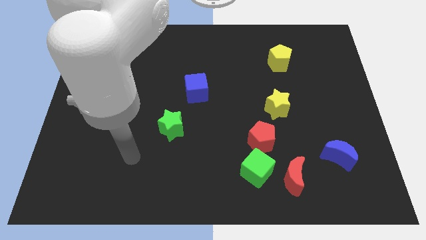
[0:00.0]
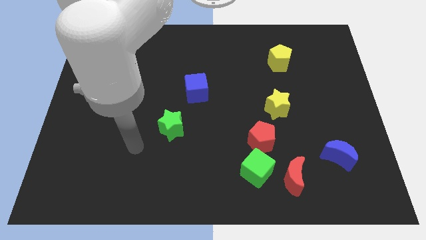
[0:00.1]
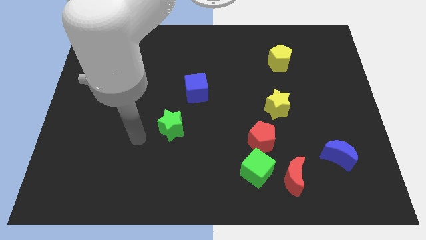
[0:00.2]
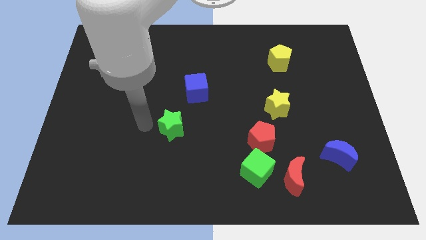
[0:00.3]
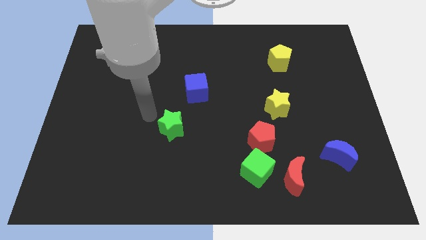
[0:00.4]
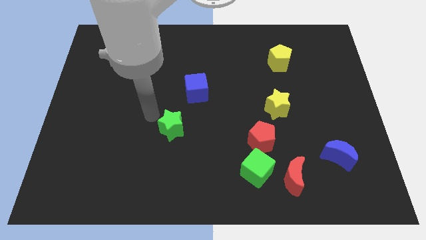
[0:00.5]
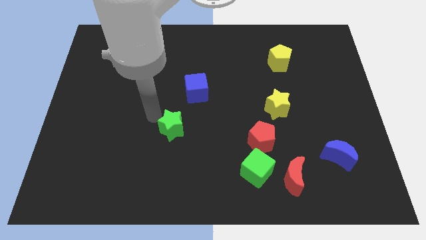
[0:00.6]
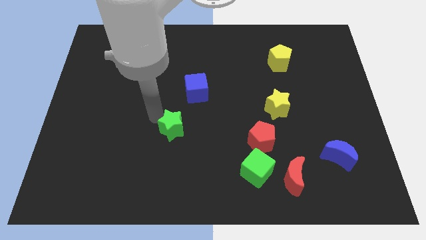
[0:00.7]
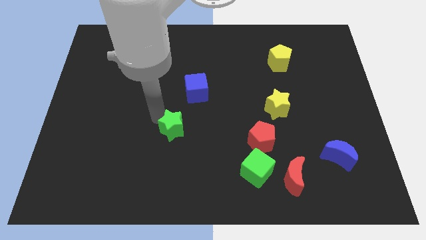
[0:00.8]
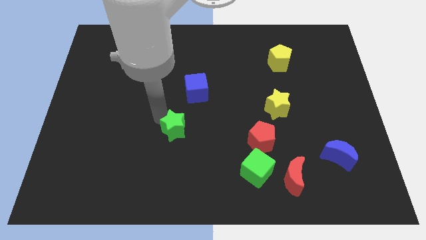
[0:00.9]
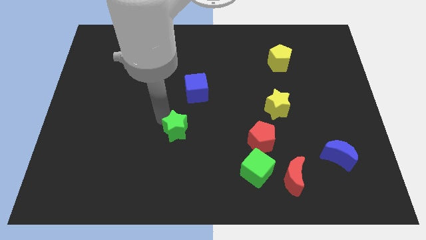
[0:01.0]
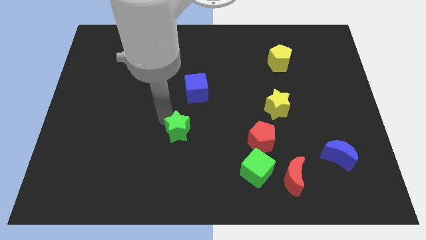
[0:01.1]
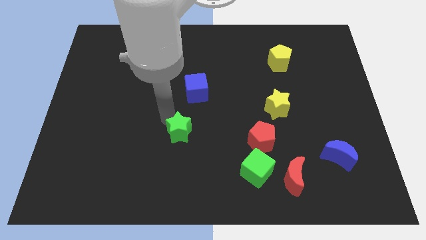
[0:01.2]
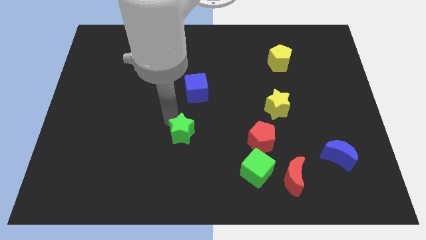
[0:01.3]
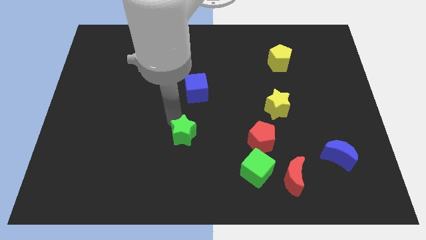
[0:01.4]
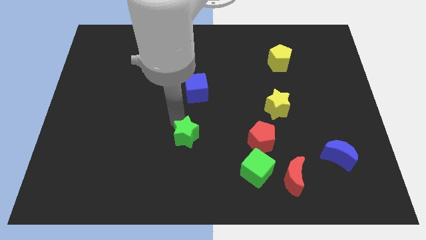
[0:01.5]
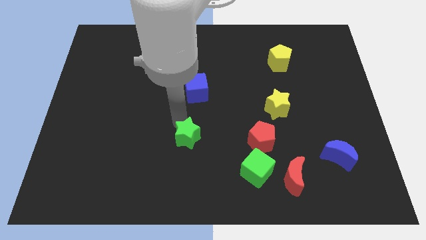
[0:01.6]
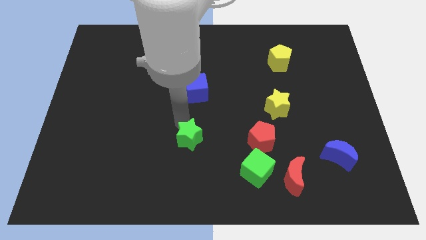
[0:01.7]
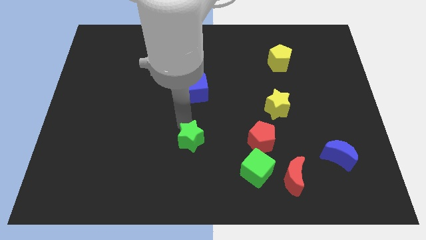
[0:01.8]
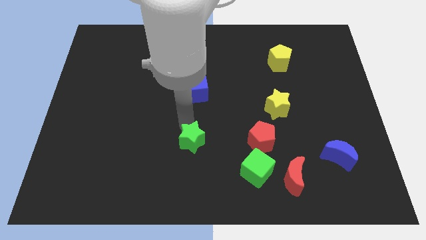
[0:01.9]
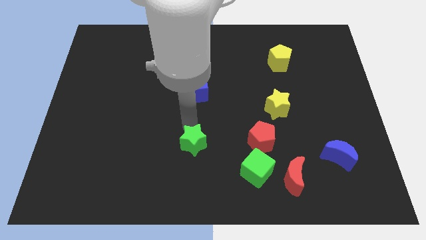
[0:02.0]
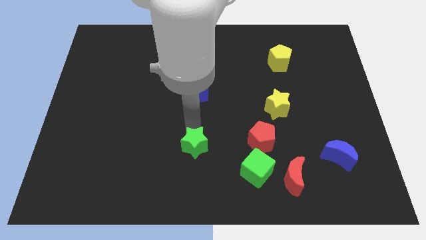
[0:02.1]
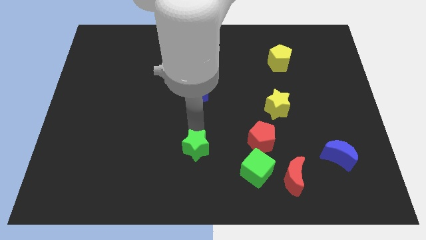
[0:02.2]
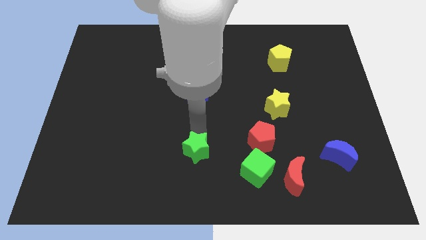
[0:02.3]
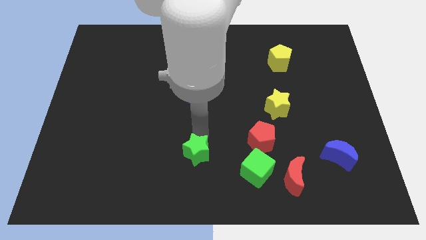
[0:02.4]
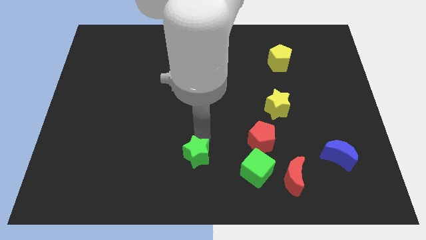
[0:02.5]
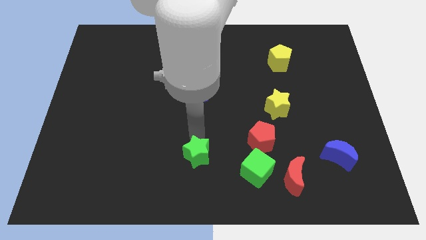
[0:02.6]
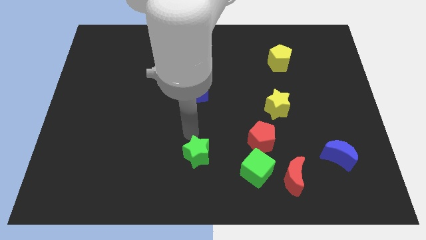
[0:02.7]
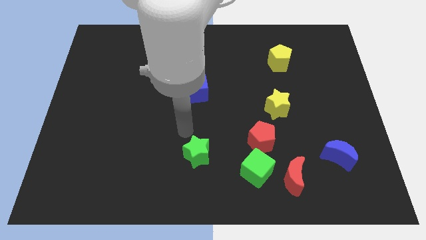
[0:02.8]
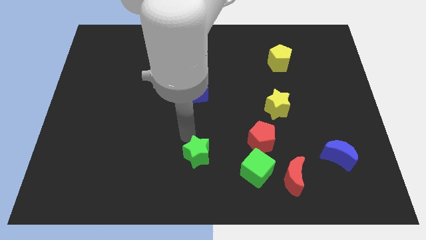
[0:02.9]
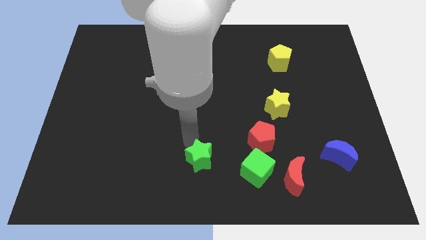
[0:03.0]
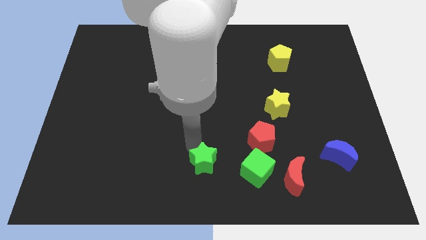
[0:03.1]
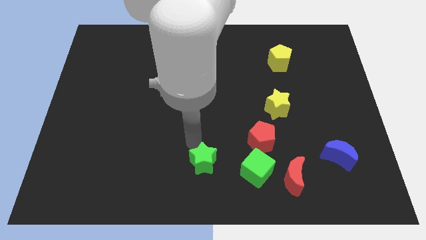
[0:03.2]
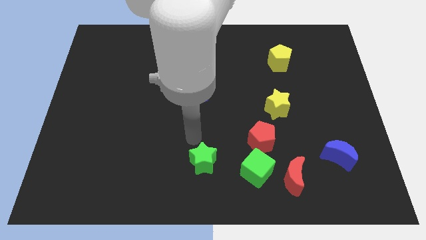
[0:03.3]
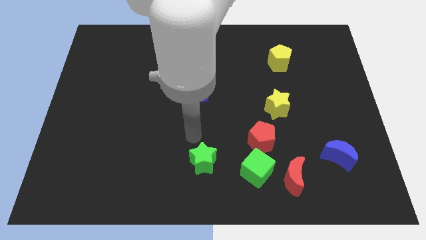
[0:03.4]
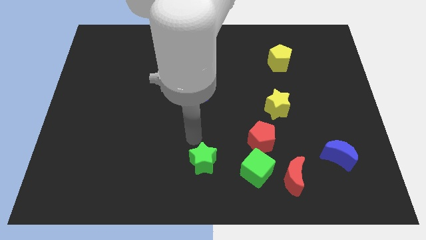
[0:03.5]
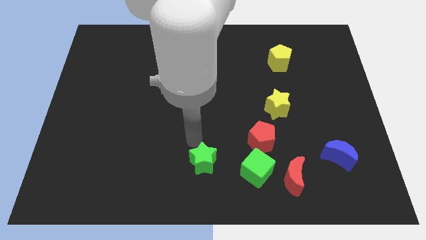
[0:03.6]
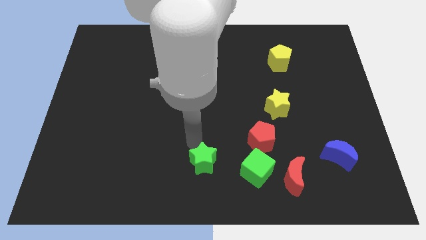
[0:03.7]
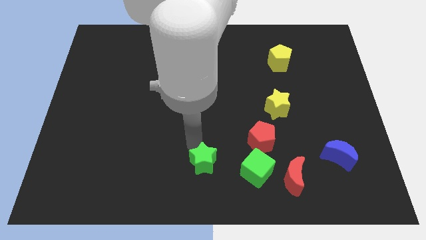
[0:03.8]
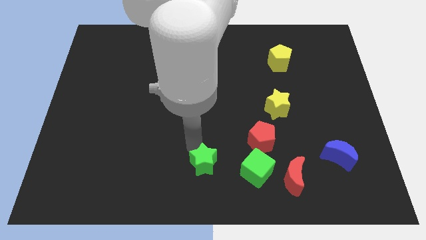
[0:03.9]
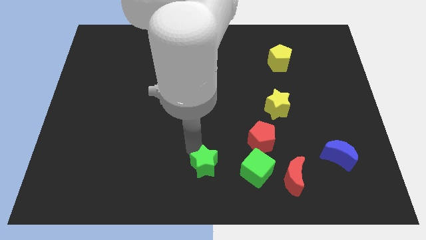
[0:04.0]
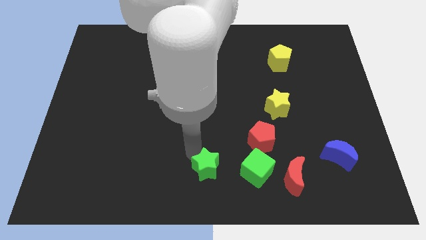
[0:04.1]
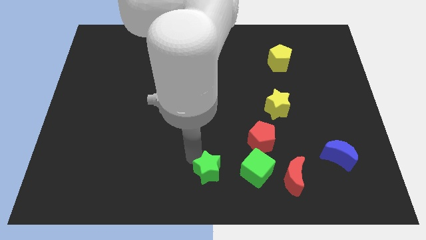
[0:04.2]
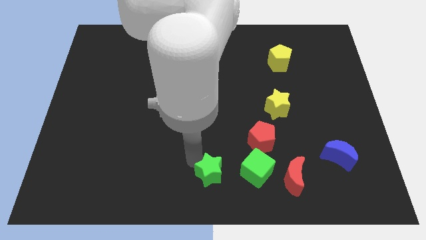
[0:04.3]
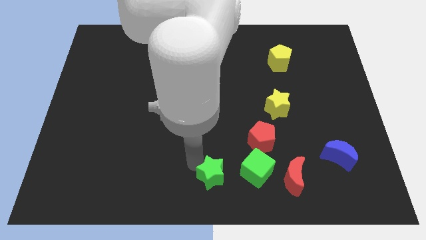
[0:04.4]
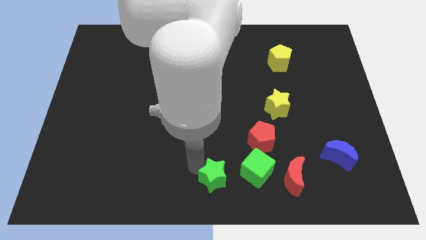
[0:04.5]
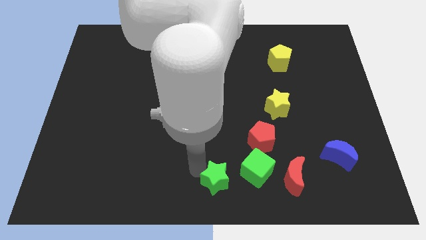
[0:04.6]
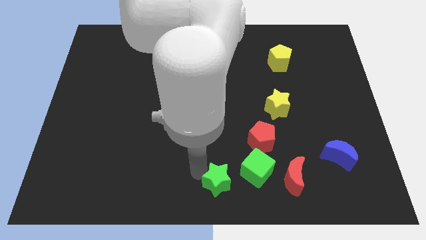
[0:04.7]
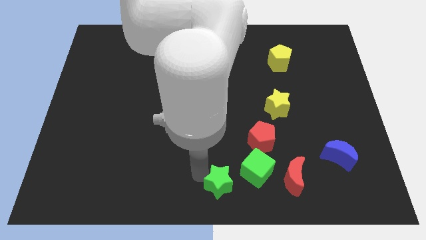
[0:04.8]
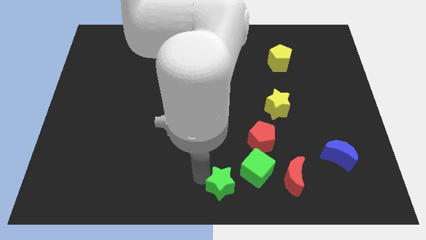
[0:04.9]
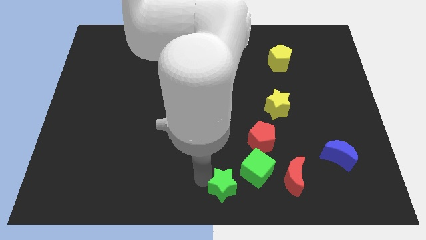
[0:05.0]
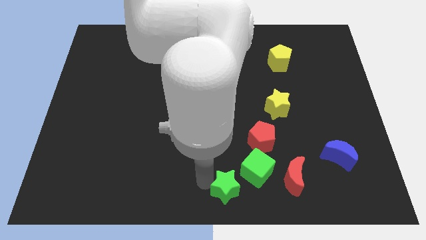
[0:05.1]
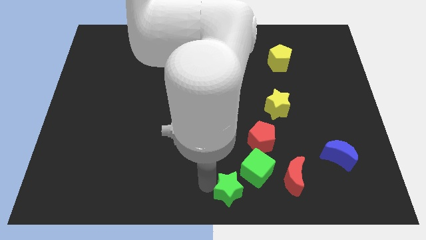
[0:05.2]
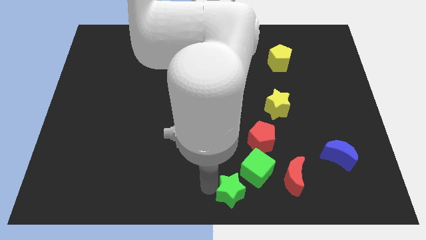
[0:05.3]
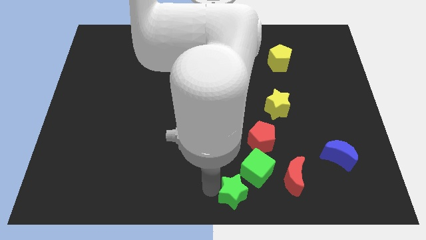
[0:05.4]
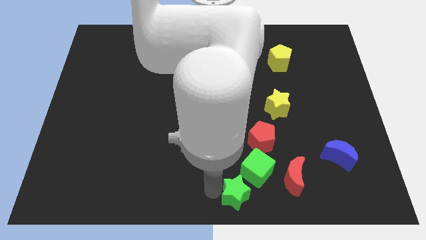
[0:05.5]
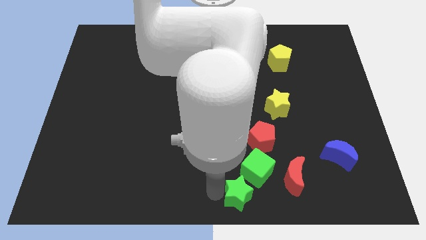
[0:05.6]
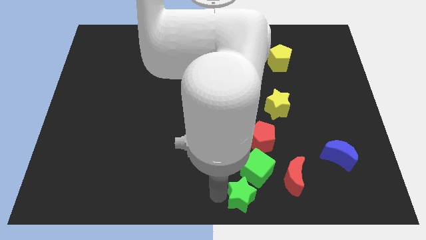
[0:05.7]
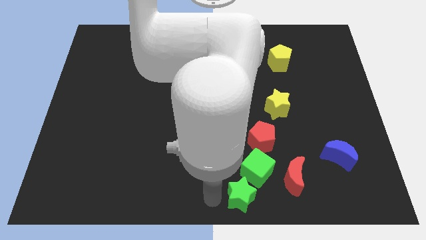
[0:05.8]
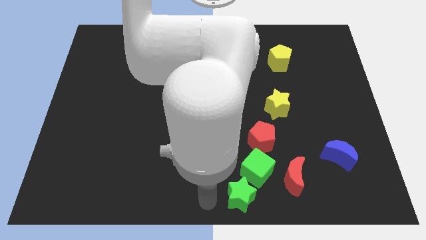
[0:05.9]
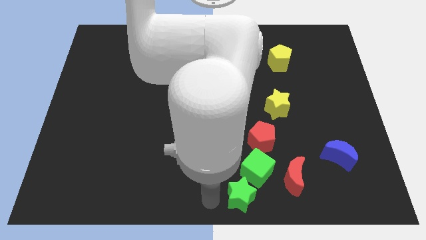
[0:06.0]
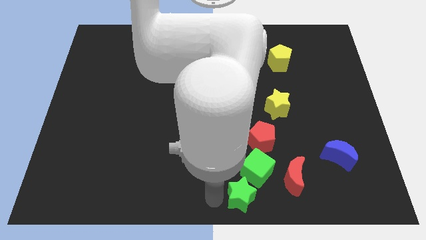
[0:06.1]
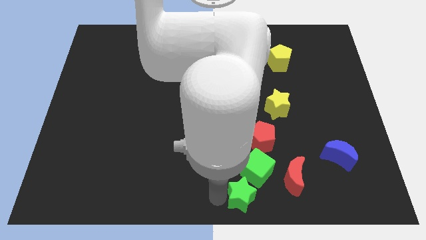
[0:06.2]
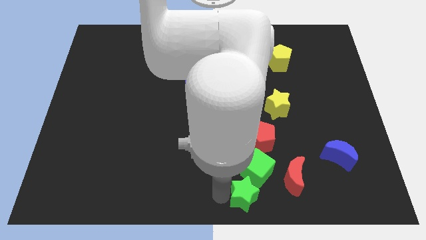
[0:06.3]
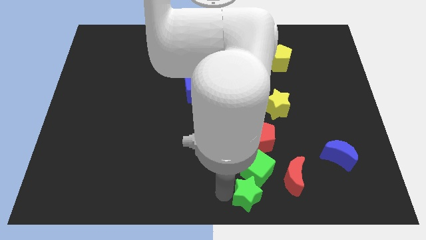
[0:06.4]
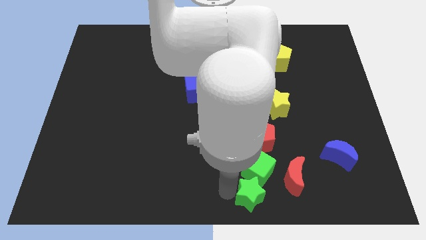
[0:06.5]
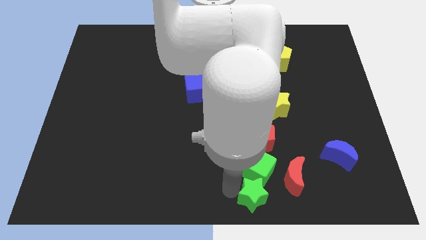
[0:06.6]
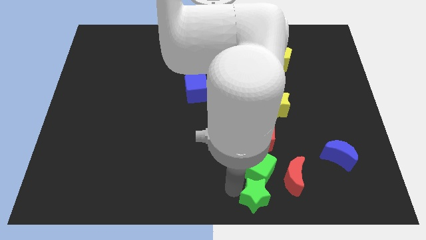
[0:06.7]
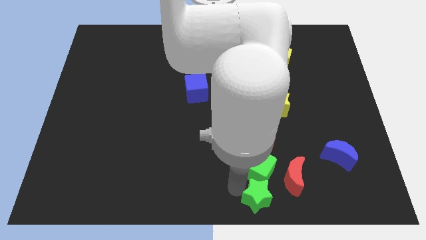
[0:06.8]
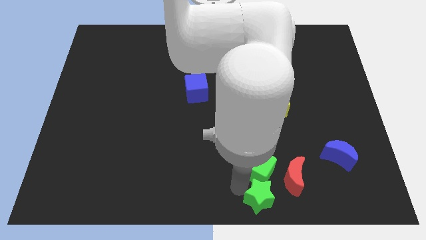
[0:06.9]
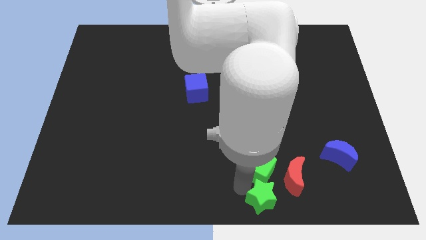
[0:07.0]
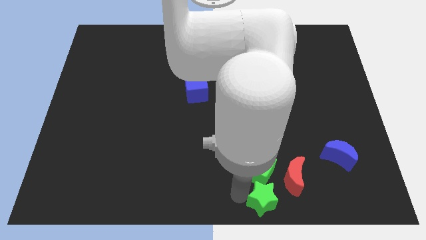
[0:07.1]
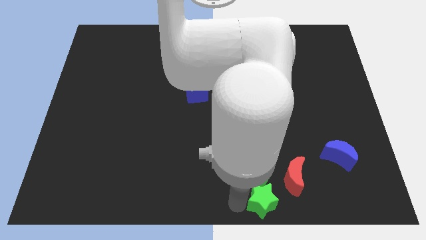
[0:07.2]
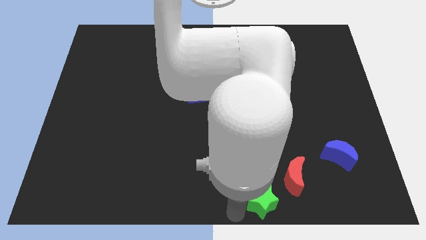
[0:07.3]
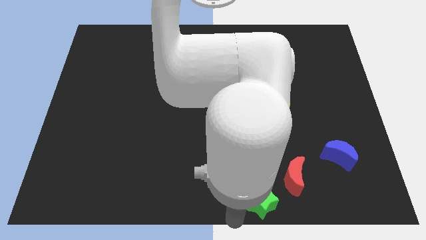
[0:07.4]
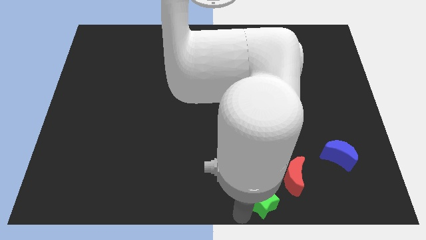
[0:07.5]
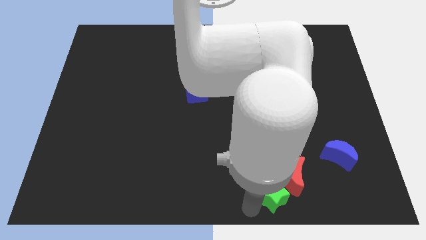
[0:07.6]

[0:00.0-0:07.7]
move the green star next to the red moon

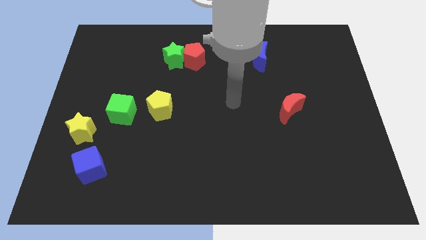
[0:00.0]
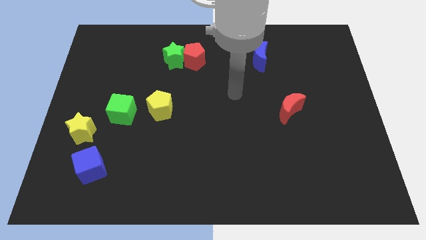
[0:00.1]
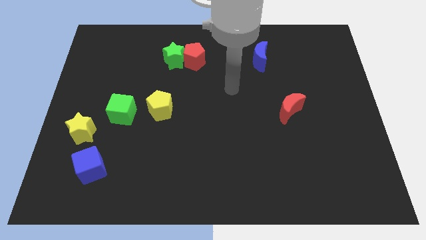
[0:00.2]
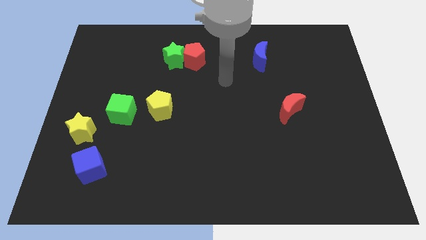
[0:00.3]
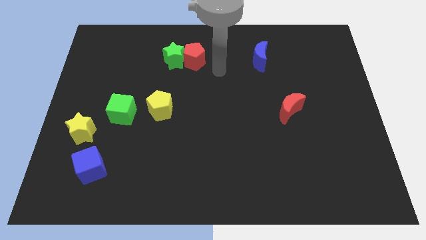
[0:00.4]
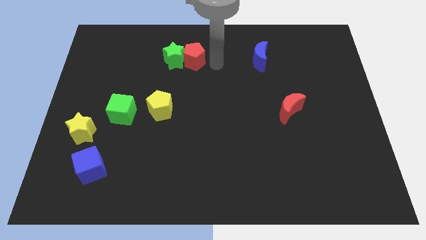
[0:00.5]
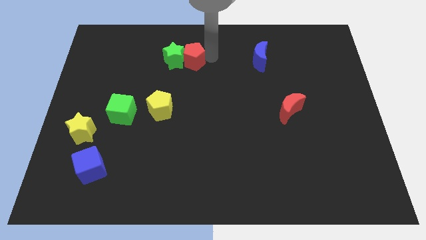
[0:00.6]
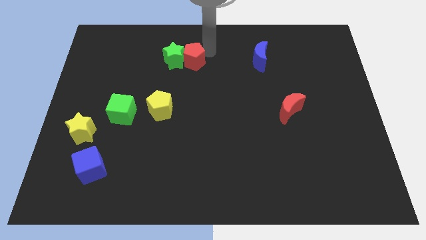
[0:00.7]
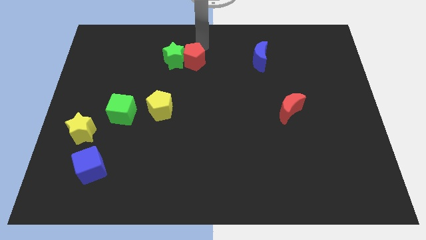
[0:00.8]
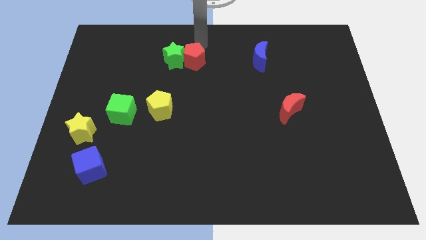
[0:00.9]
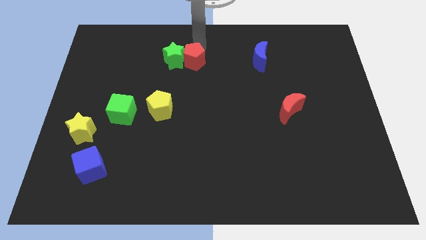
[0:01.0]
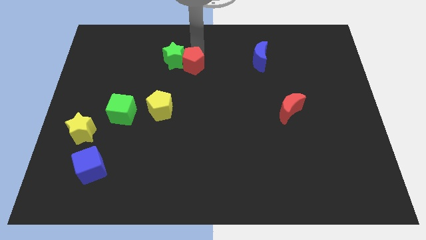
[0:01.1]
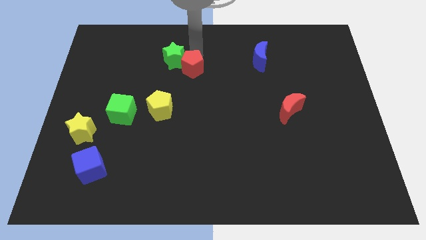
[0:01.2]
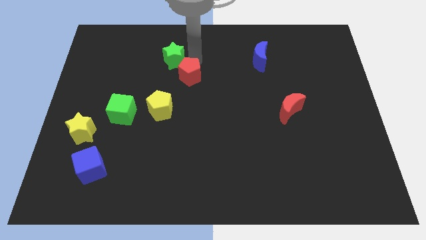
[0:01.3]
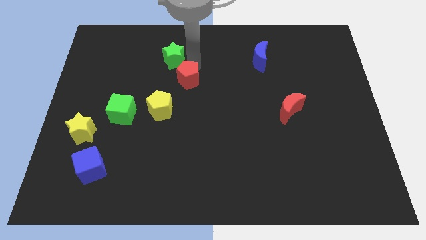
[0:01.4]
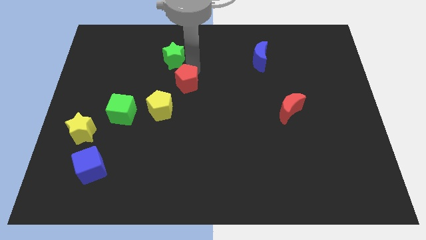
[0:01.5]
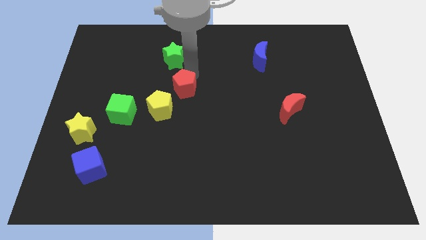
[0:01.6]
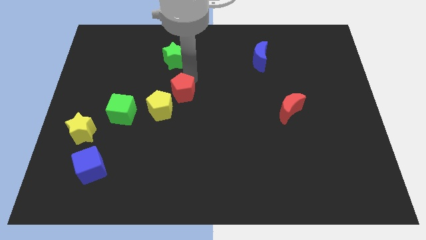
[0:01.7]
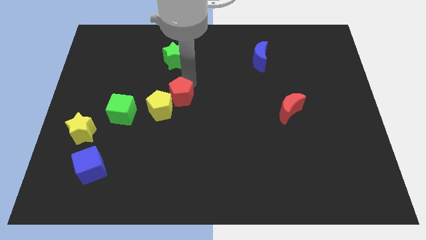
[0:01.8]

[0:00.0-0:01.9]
slide the red pentagon towards the yellow pentagon
